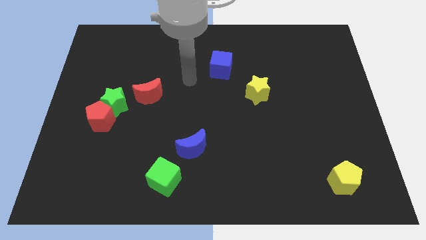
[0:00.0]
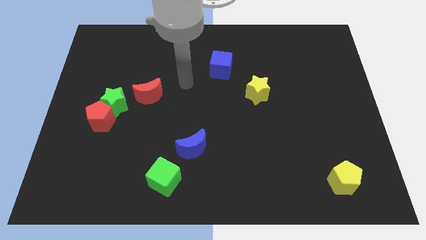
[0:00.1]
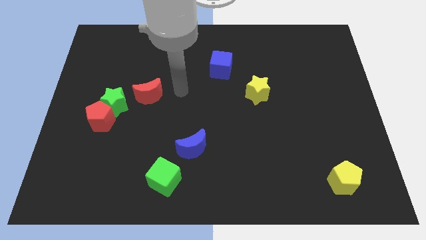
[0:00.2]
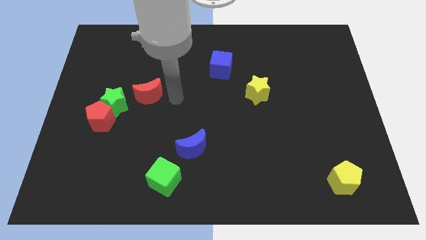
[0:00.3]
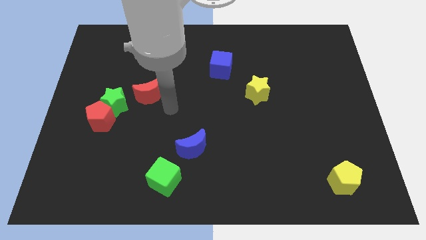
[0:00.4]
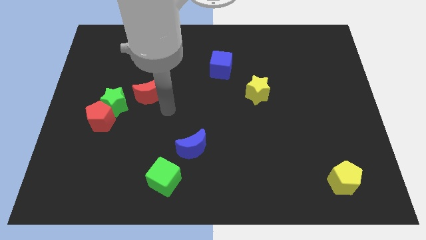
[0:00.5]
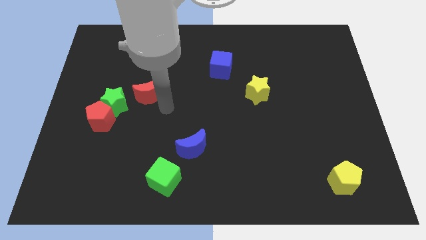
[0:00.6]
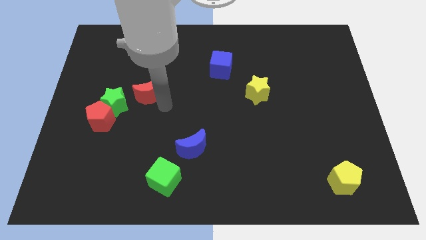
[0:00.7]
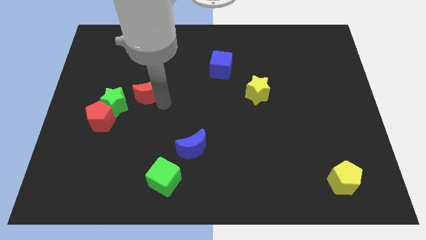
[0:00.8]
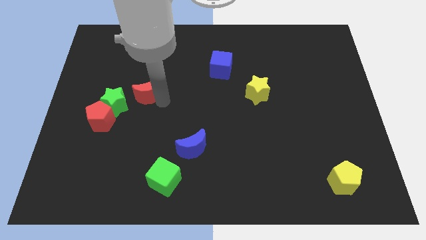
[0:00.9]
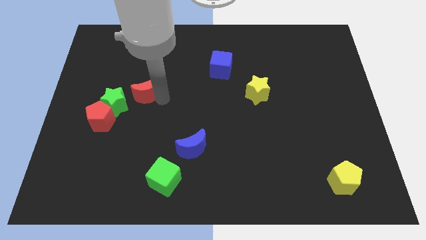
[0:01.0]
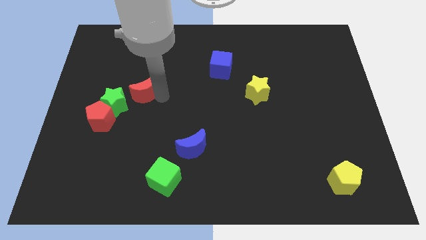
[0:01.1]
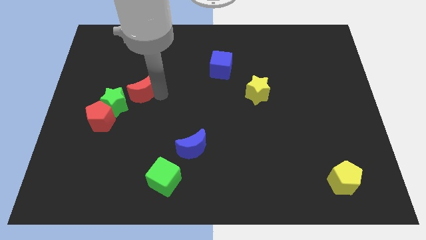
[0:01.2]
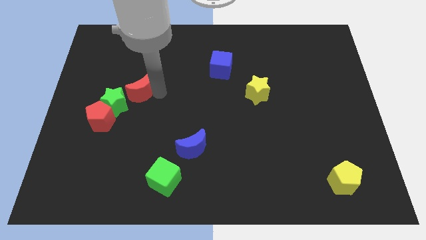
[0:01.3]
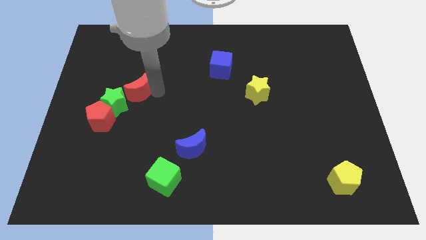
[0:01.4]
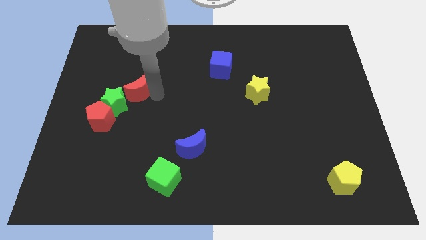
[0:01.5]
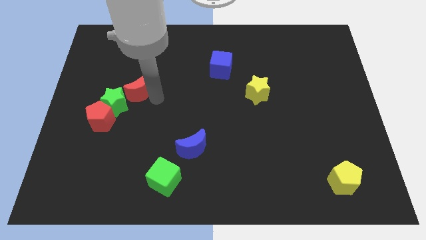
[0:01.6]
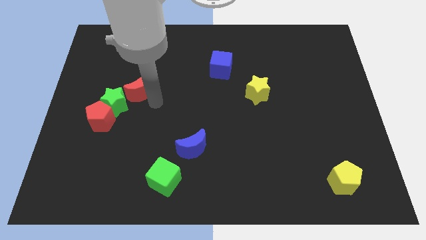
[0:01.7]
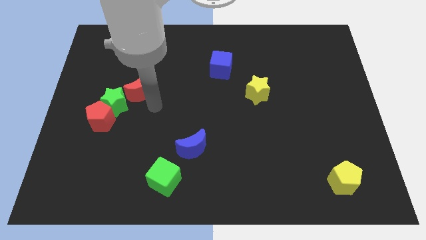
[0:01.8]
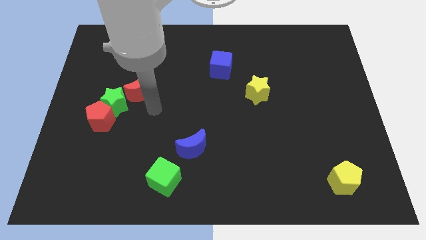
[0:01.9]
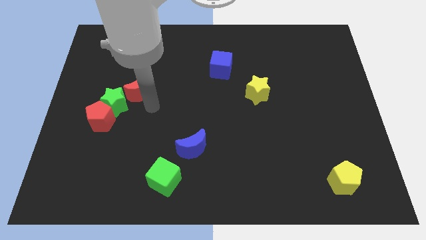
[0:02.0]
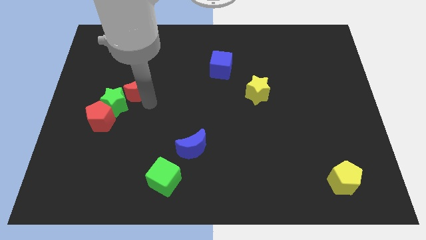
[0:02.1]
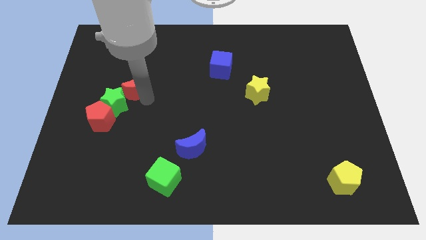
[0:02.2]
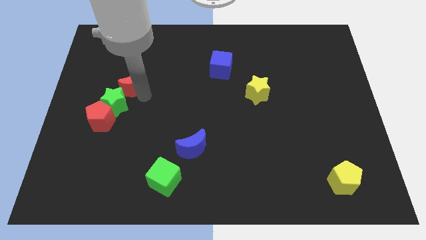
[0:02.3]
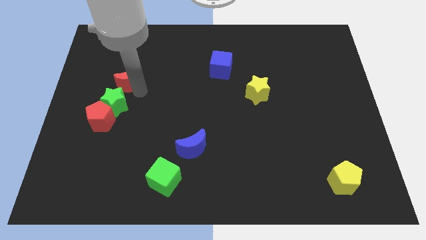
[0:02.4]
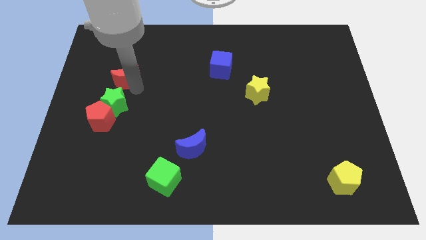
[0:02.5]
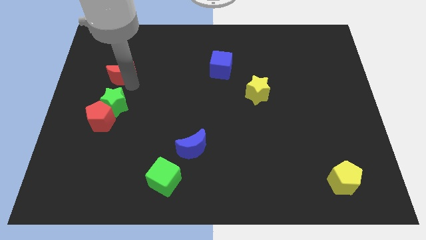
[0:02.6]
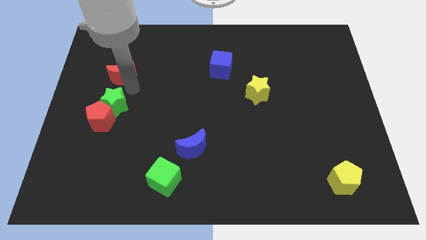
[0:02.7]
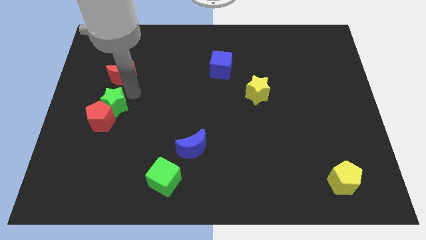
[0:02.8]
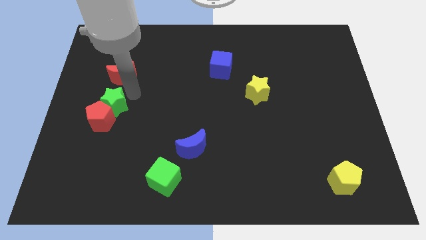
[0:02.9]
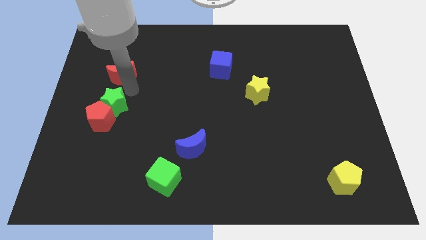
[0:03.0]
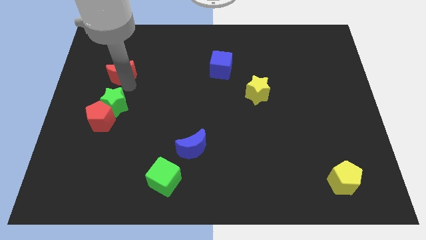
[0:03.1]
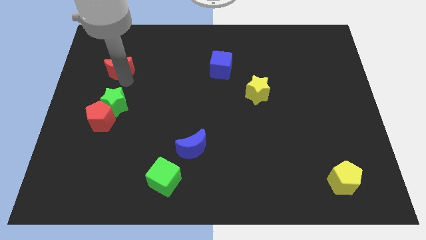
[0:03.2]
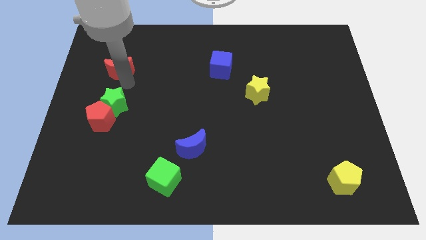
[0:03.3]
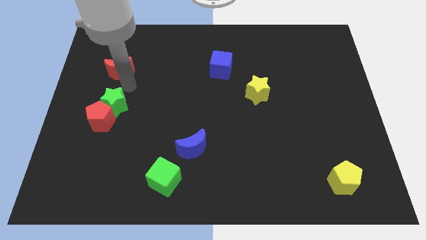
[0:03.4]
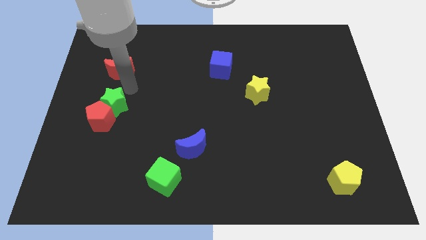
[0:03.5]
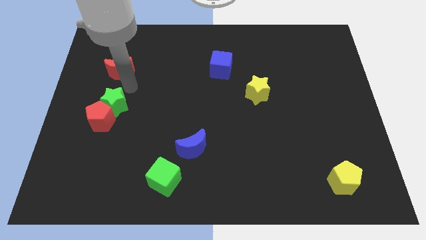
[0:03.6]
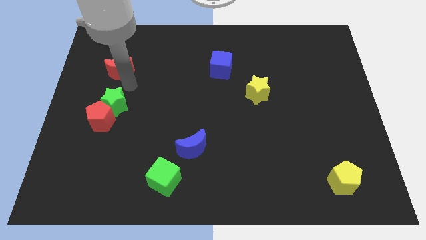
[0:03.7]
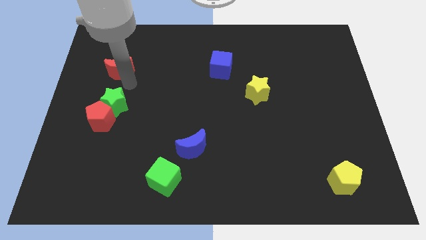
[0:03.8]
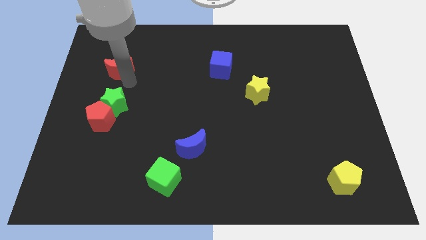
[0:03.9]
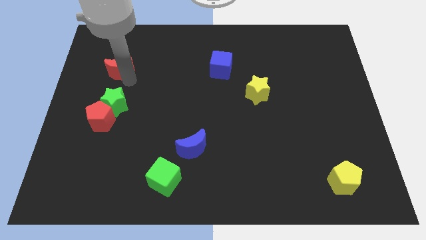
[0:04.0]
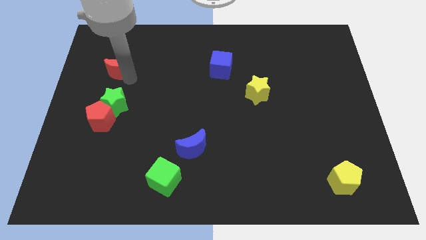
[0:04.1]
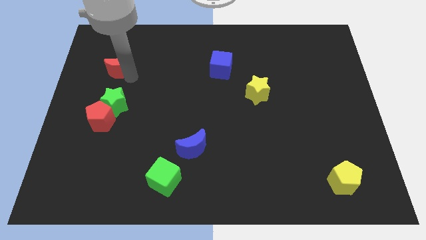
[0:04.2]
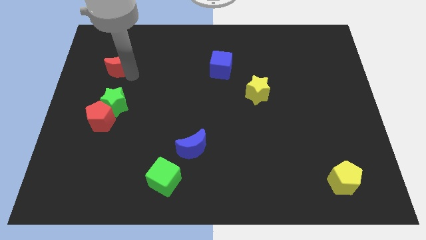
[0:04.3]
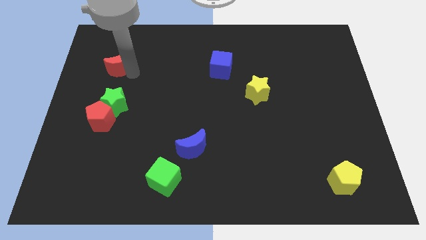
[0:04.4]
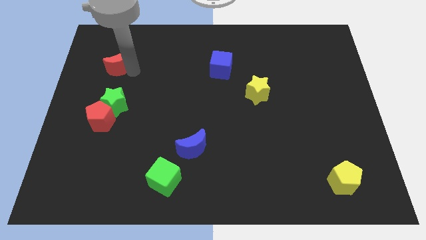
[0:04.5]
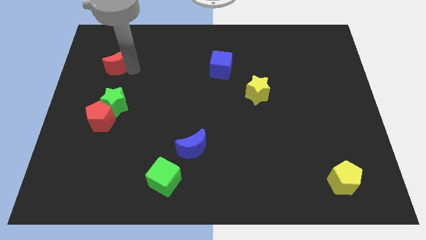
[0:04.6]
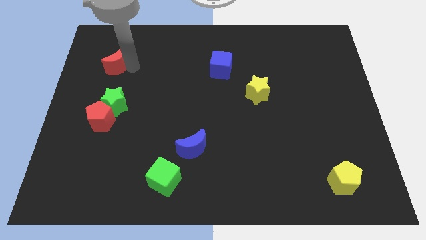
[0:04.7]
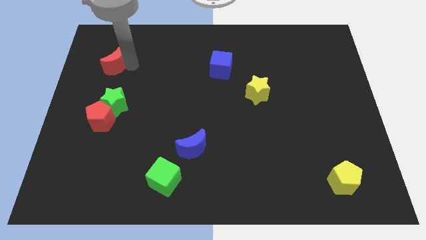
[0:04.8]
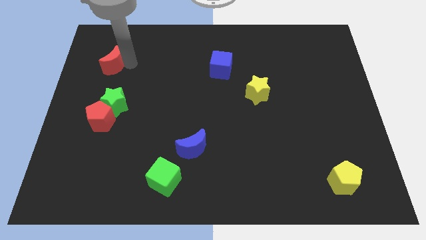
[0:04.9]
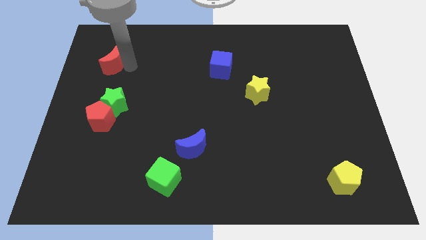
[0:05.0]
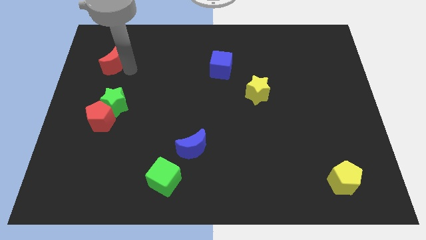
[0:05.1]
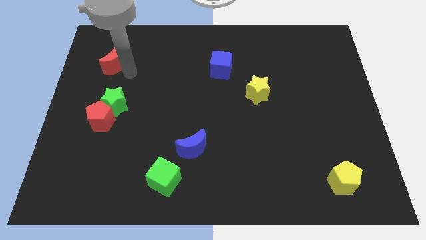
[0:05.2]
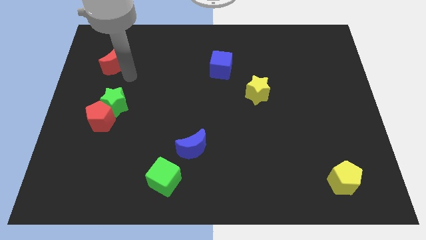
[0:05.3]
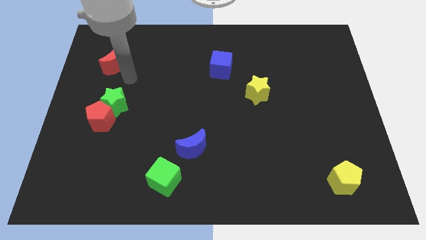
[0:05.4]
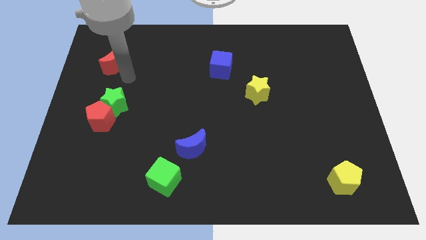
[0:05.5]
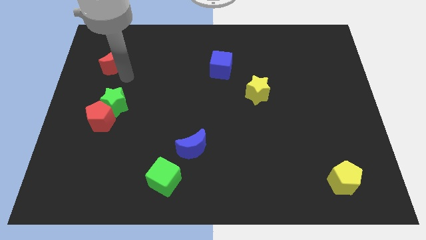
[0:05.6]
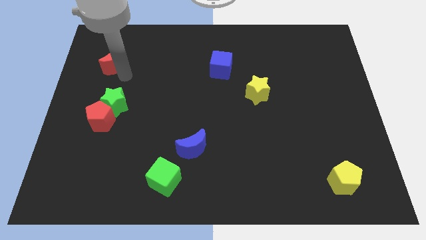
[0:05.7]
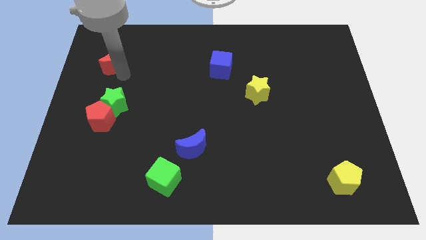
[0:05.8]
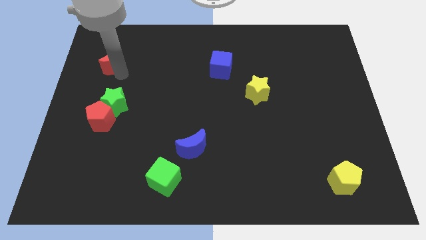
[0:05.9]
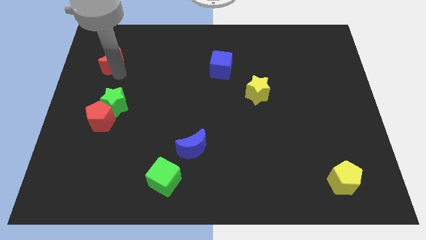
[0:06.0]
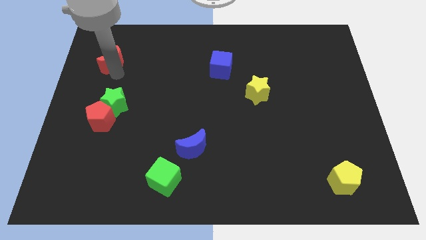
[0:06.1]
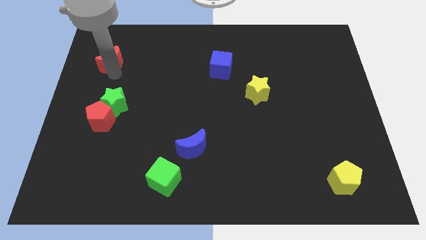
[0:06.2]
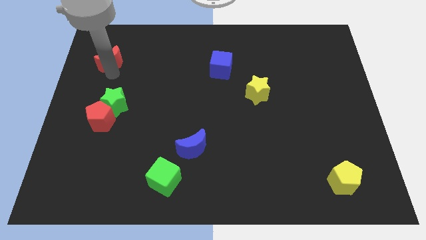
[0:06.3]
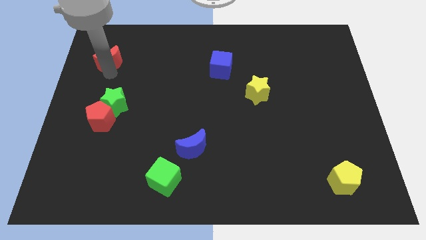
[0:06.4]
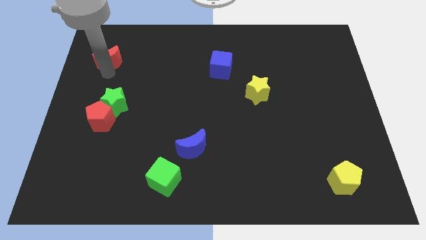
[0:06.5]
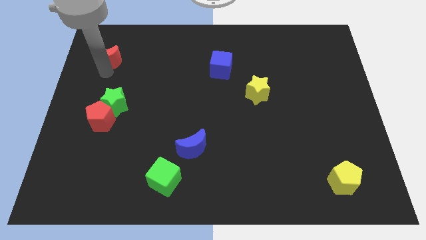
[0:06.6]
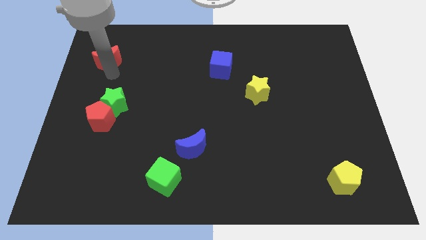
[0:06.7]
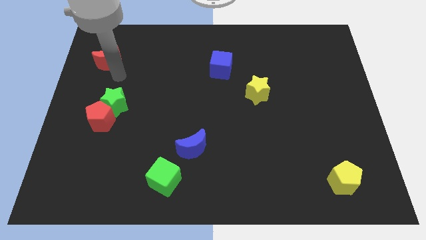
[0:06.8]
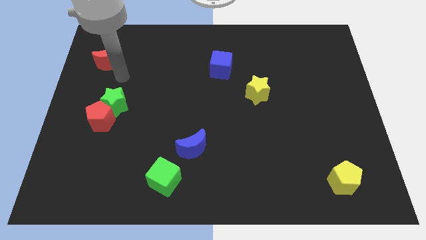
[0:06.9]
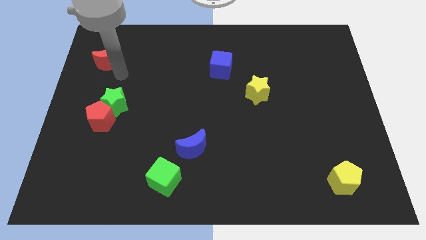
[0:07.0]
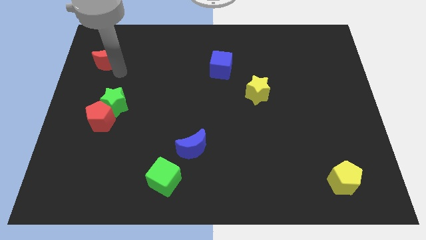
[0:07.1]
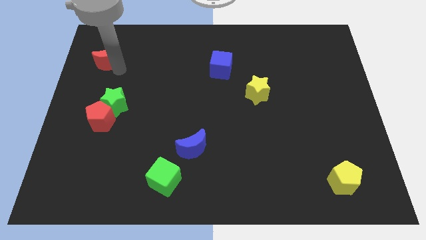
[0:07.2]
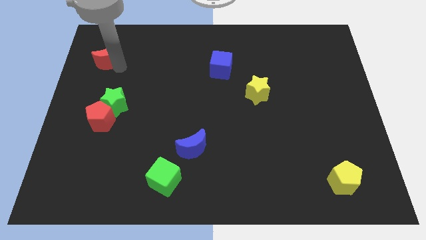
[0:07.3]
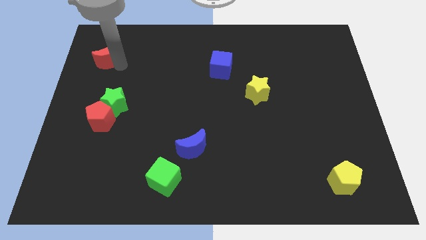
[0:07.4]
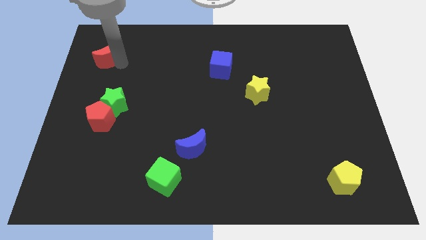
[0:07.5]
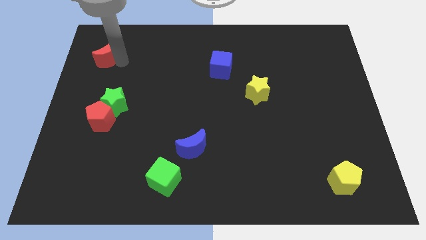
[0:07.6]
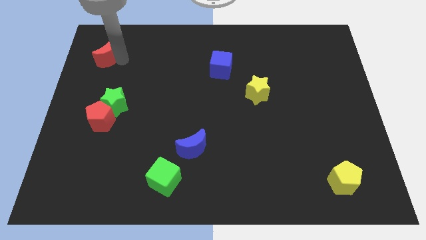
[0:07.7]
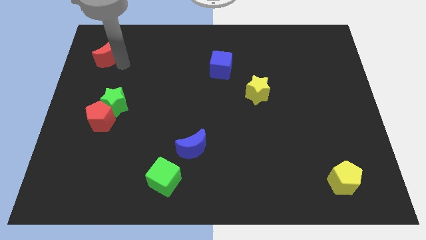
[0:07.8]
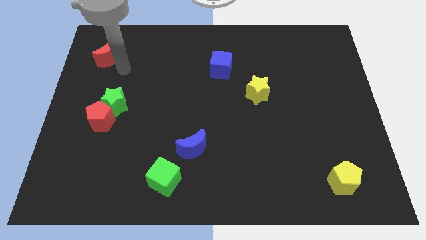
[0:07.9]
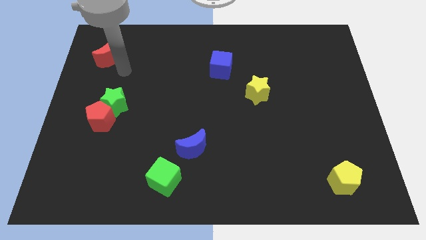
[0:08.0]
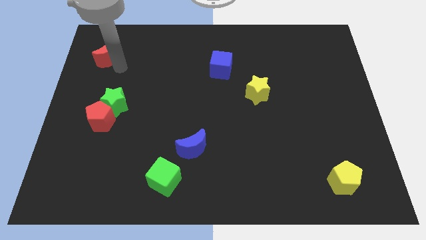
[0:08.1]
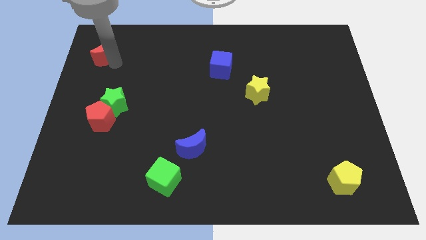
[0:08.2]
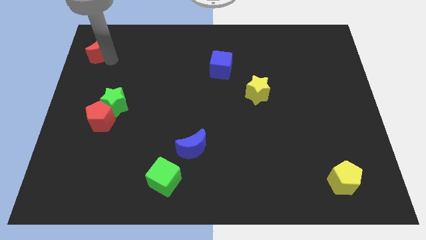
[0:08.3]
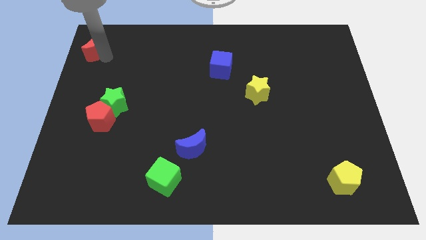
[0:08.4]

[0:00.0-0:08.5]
slide the red moon to the top left
